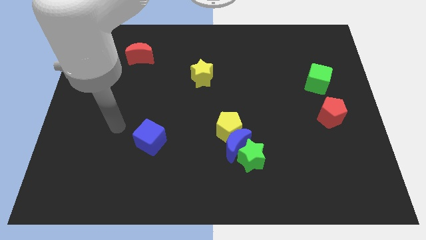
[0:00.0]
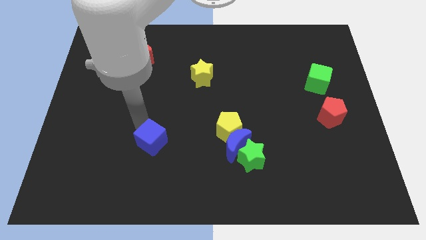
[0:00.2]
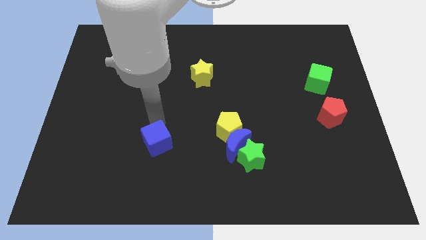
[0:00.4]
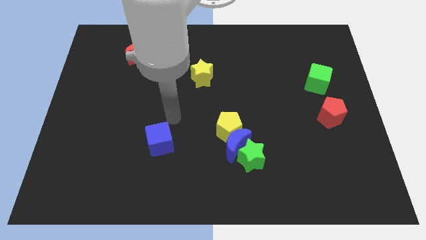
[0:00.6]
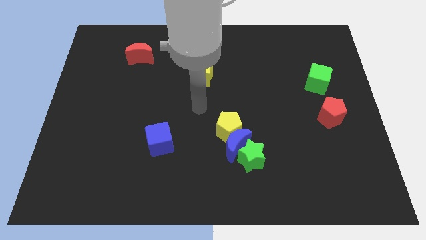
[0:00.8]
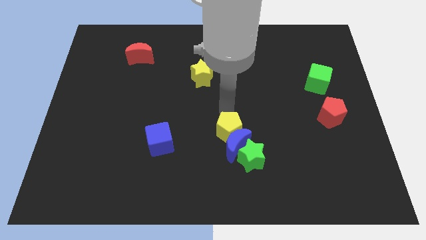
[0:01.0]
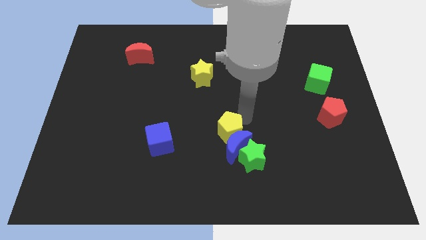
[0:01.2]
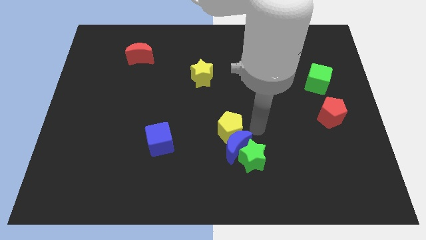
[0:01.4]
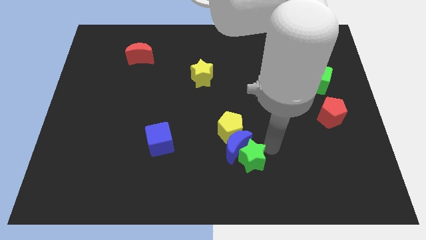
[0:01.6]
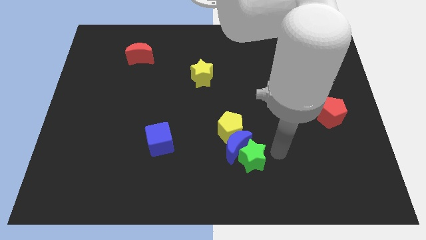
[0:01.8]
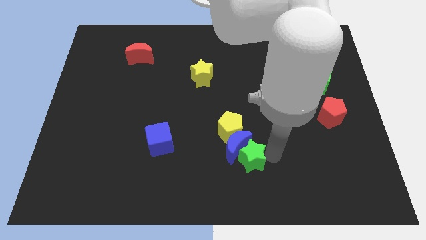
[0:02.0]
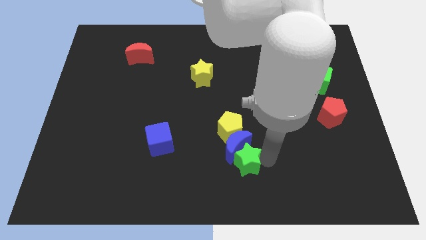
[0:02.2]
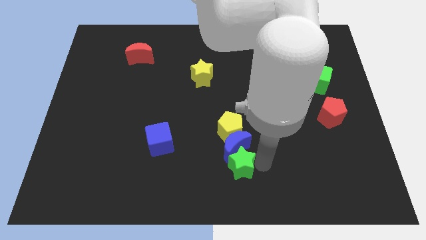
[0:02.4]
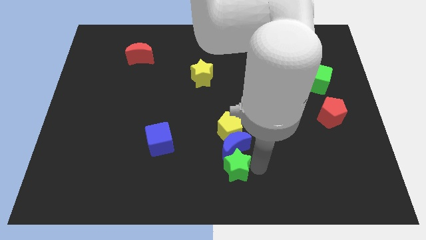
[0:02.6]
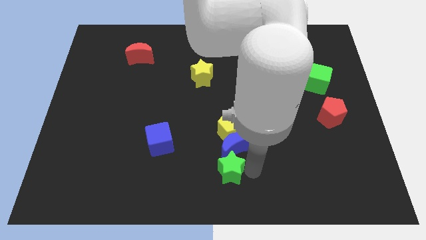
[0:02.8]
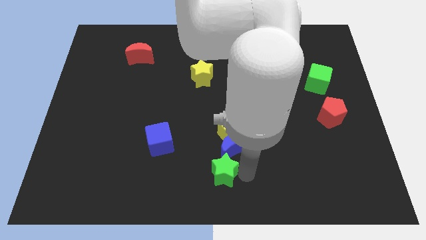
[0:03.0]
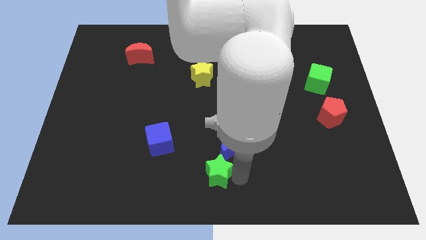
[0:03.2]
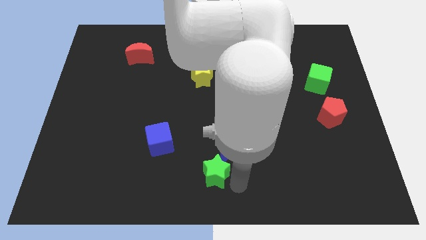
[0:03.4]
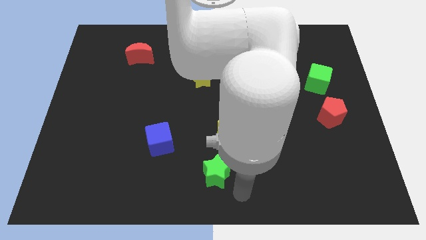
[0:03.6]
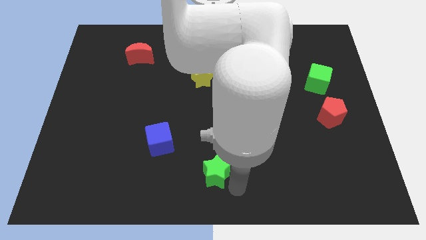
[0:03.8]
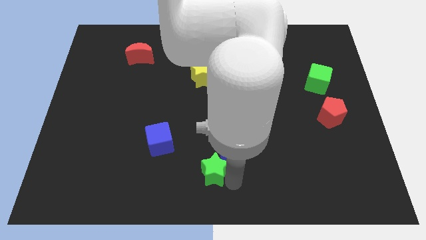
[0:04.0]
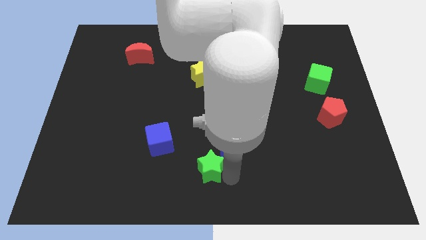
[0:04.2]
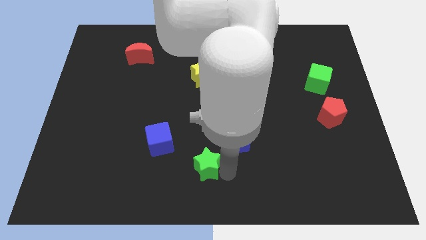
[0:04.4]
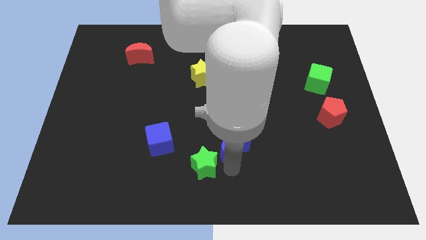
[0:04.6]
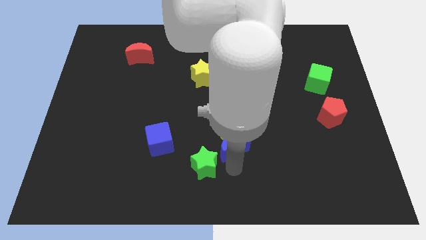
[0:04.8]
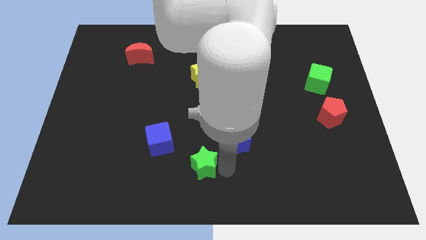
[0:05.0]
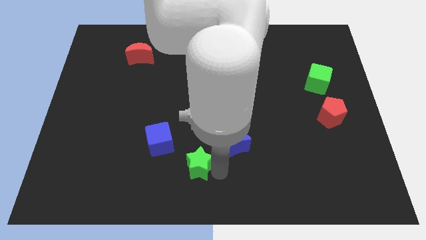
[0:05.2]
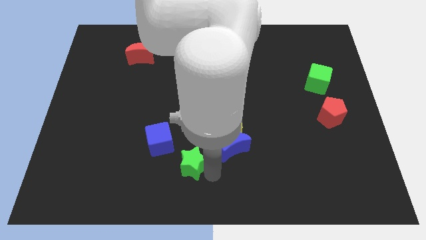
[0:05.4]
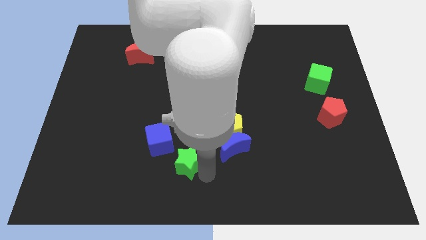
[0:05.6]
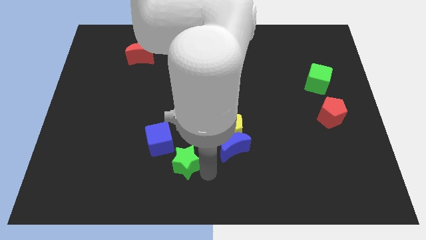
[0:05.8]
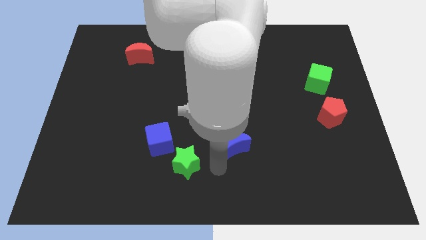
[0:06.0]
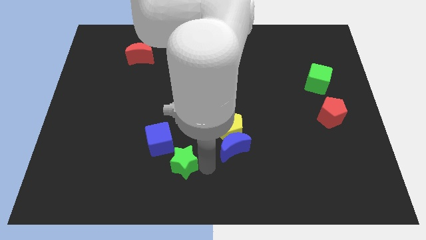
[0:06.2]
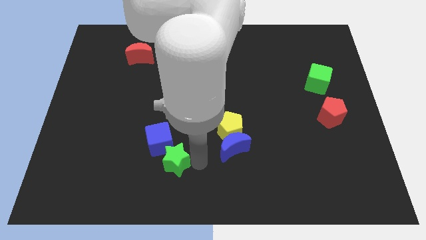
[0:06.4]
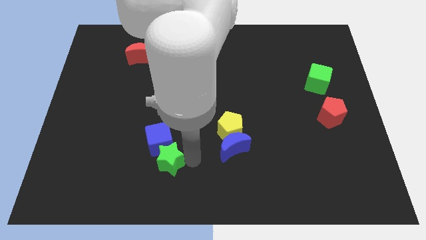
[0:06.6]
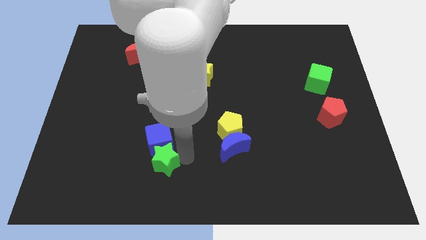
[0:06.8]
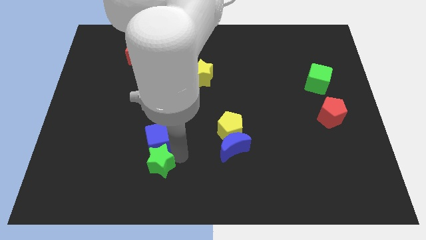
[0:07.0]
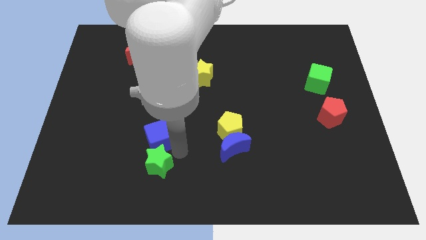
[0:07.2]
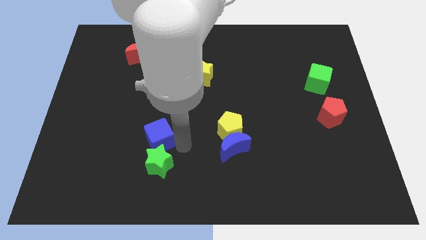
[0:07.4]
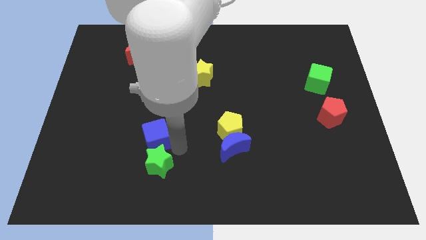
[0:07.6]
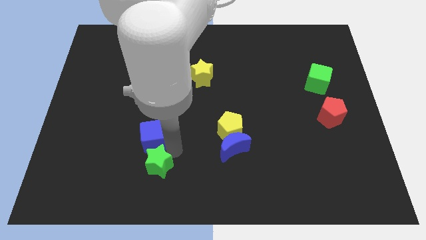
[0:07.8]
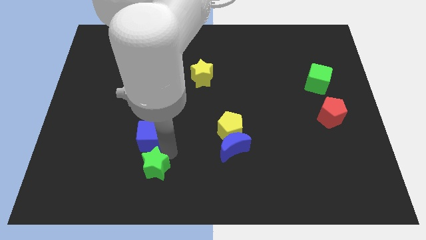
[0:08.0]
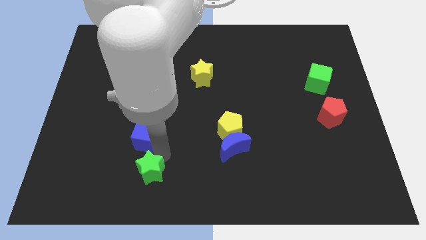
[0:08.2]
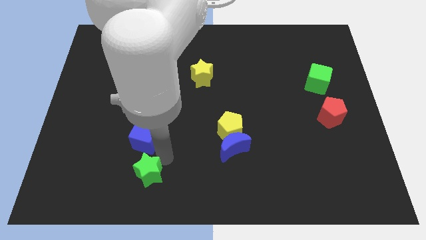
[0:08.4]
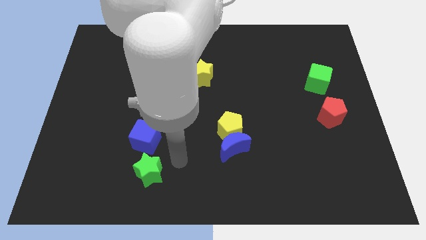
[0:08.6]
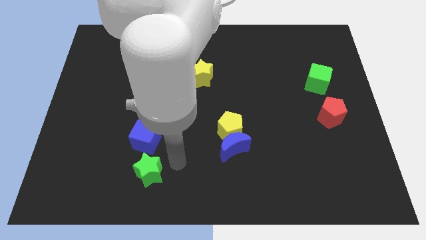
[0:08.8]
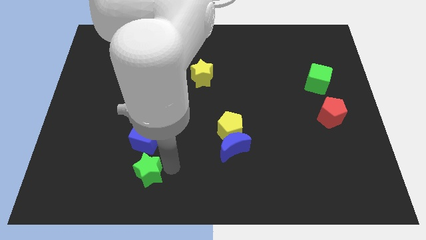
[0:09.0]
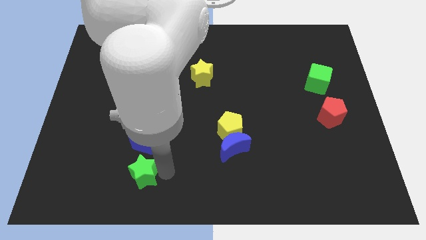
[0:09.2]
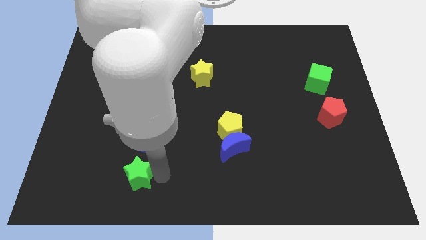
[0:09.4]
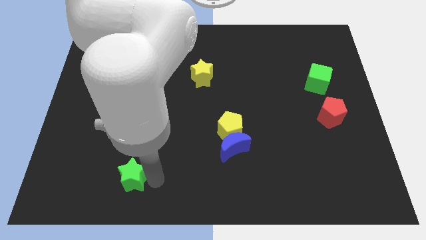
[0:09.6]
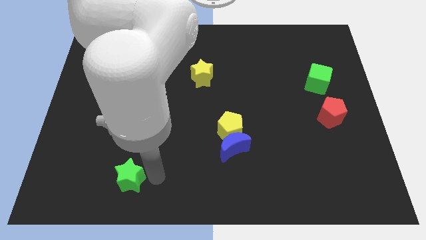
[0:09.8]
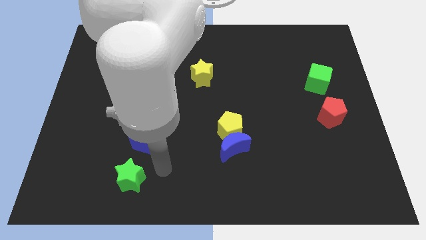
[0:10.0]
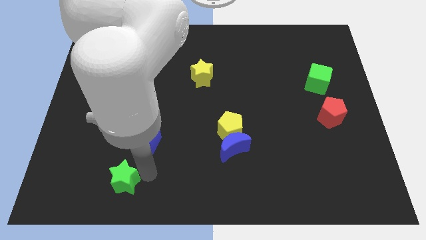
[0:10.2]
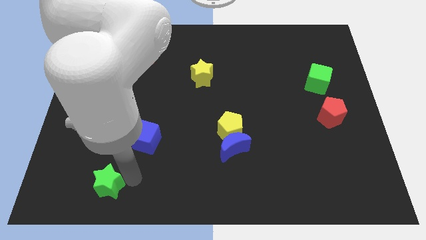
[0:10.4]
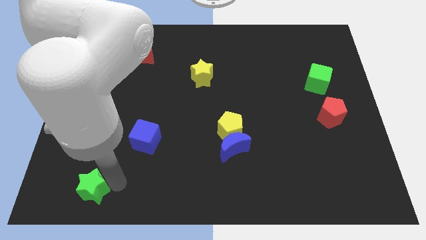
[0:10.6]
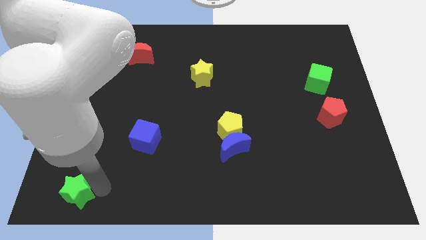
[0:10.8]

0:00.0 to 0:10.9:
move the green star to the bottom left corner

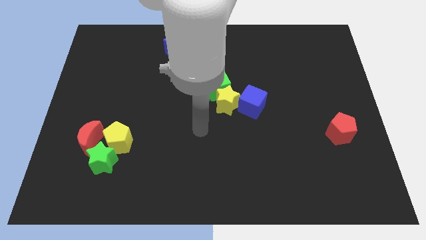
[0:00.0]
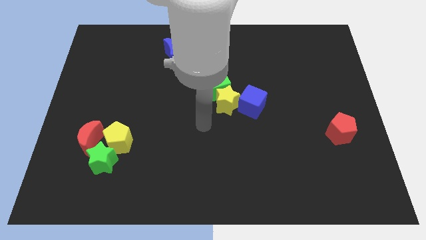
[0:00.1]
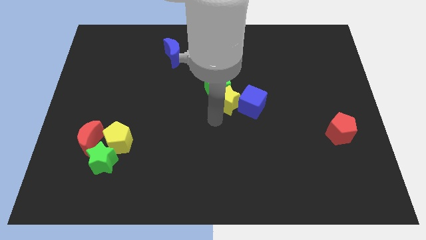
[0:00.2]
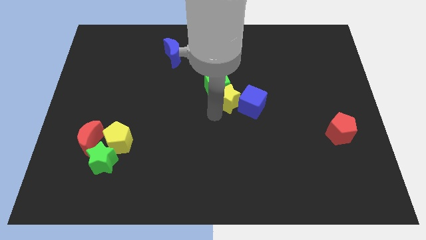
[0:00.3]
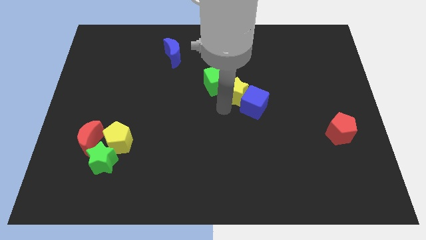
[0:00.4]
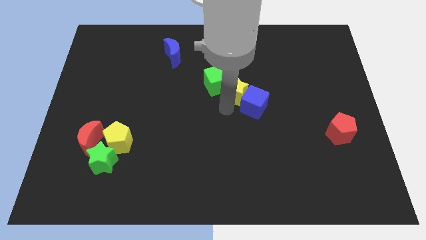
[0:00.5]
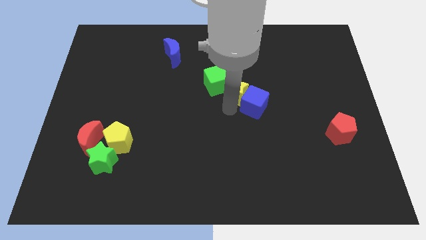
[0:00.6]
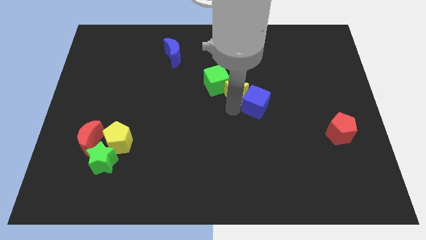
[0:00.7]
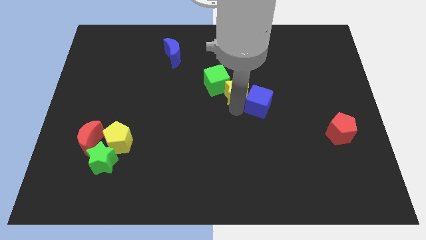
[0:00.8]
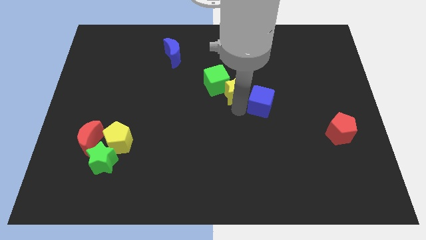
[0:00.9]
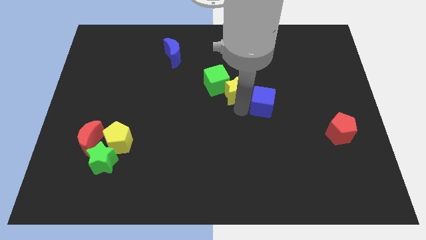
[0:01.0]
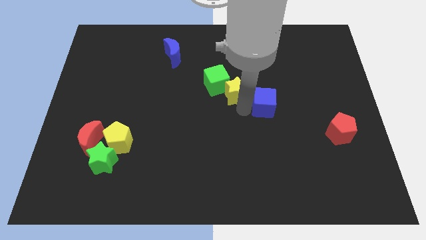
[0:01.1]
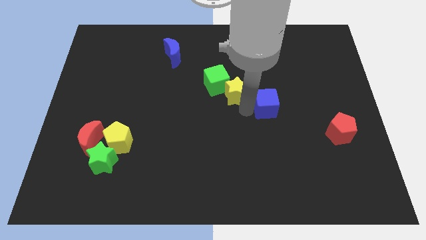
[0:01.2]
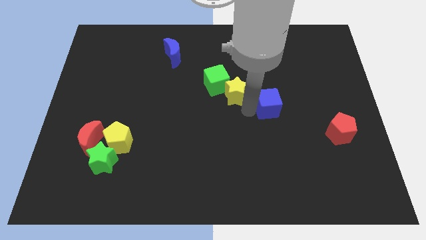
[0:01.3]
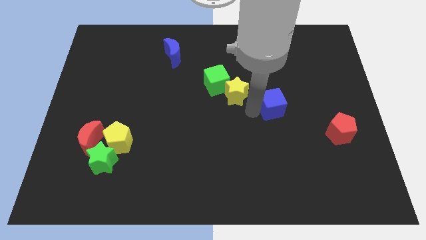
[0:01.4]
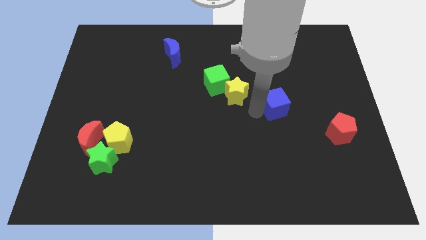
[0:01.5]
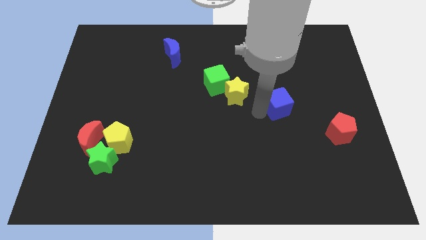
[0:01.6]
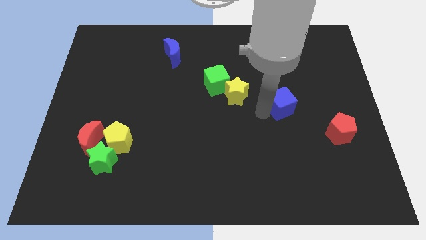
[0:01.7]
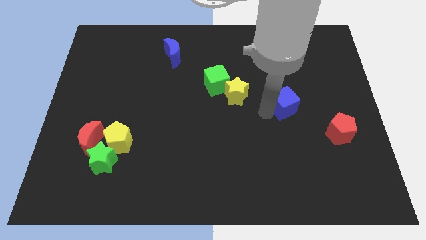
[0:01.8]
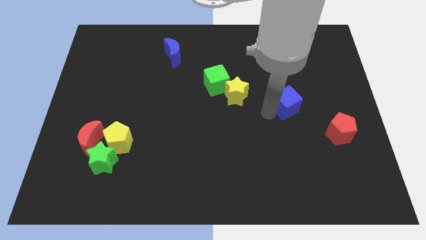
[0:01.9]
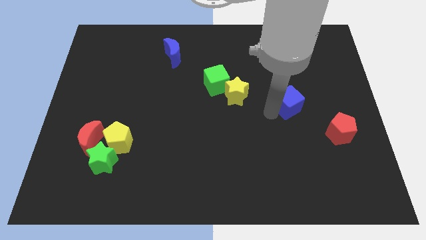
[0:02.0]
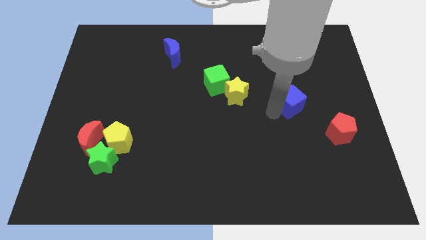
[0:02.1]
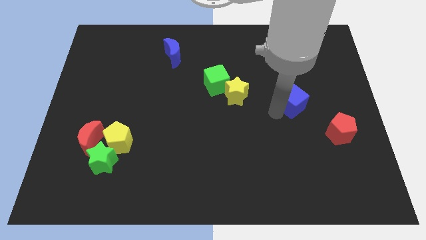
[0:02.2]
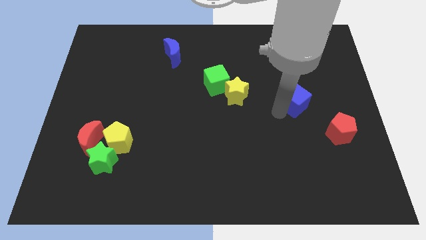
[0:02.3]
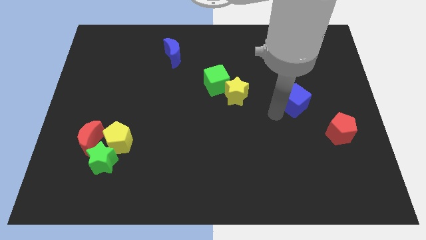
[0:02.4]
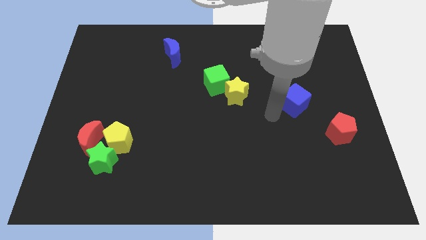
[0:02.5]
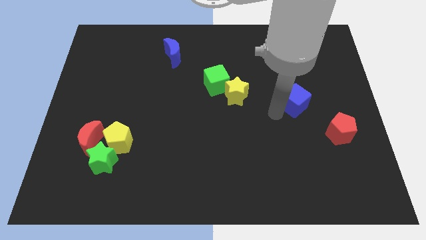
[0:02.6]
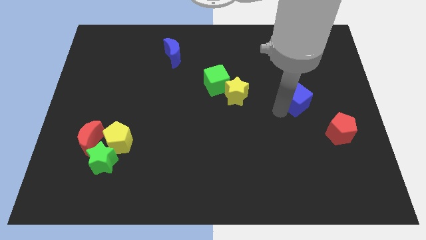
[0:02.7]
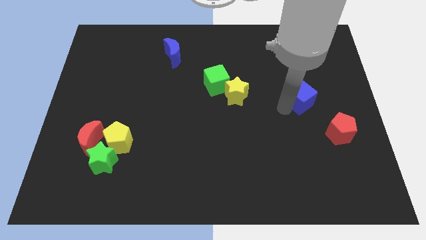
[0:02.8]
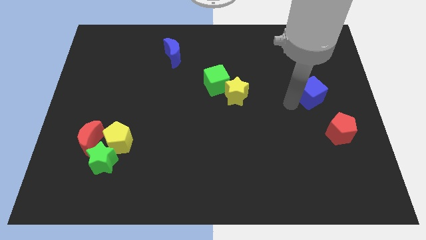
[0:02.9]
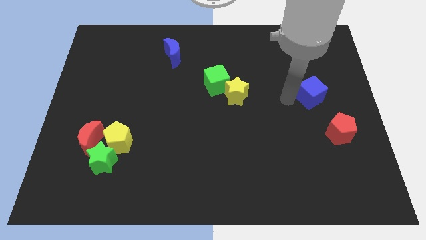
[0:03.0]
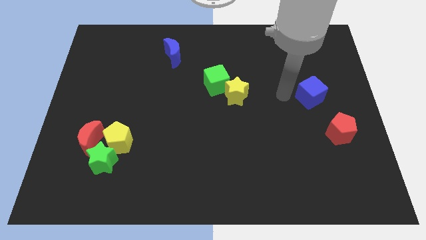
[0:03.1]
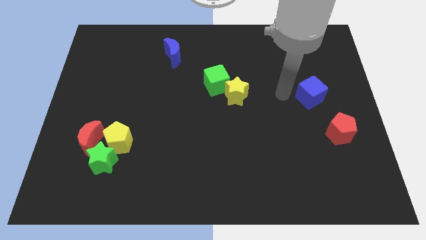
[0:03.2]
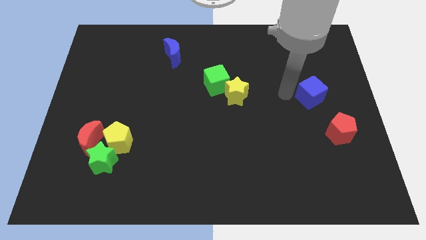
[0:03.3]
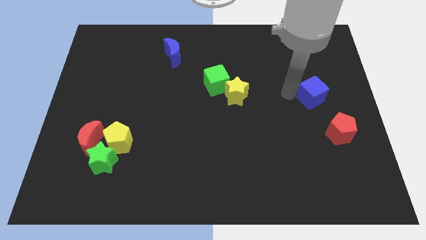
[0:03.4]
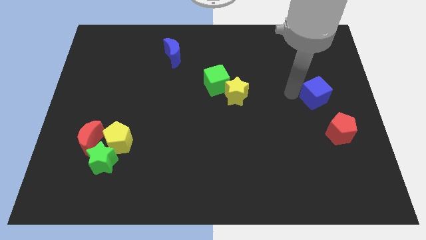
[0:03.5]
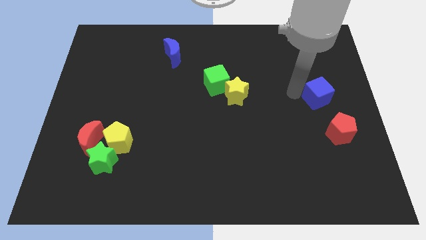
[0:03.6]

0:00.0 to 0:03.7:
put the blue cube to the right side
